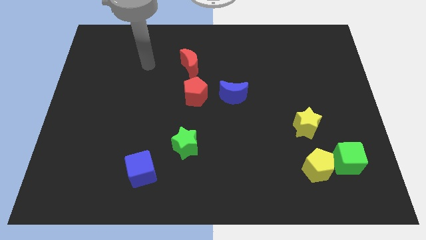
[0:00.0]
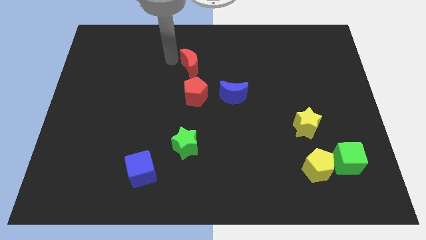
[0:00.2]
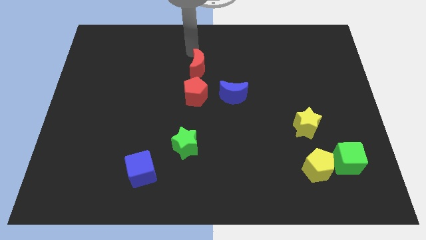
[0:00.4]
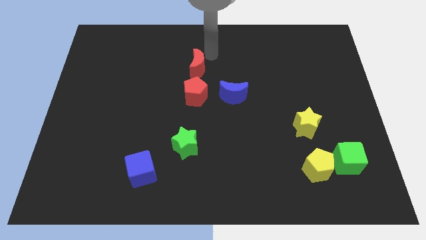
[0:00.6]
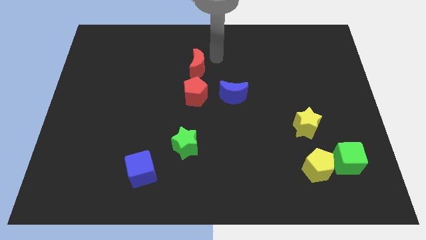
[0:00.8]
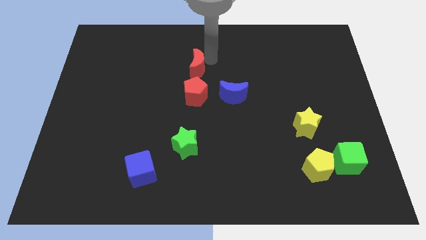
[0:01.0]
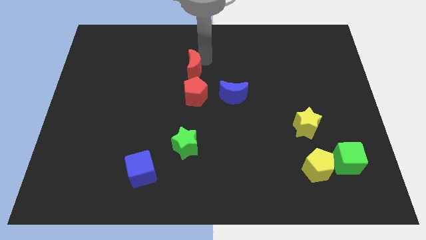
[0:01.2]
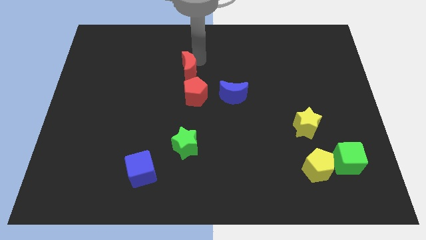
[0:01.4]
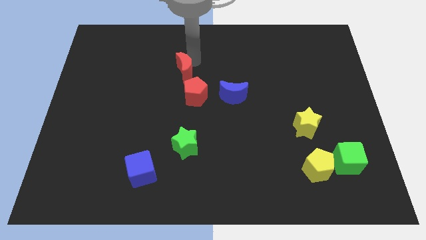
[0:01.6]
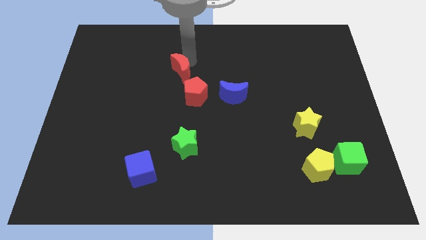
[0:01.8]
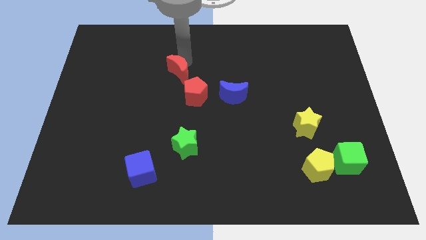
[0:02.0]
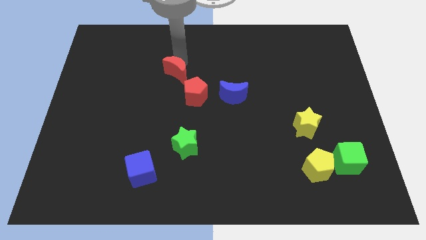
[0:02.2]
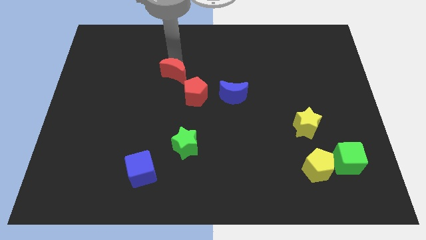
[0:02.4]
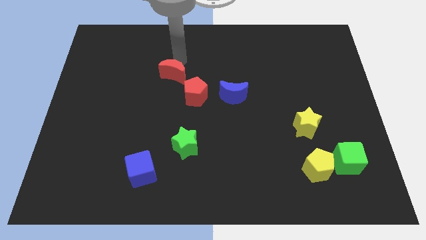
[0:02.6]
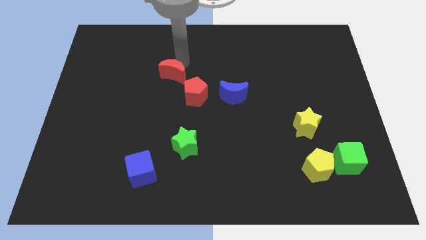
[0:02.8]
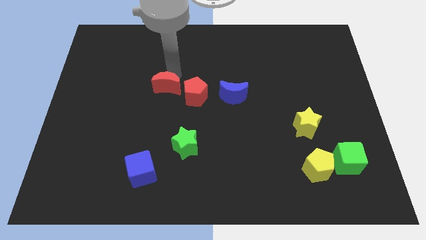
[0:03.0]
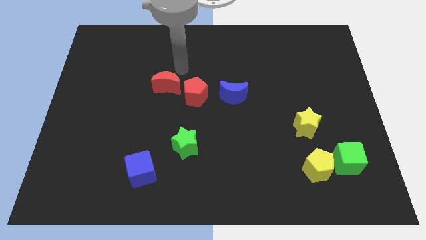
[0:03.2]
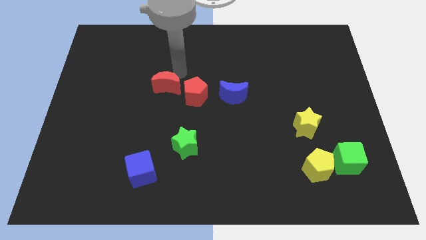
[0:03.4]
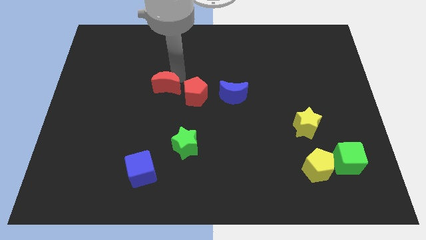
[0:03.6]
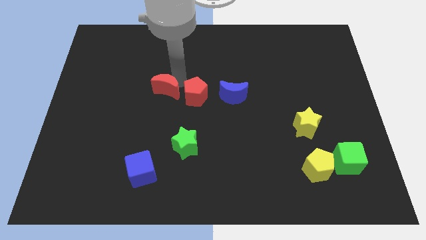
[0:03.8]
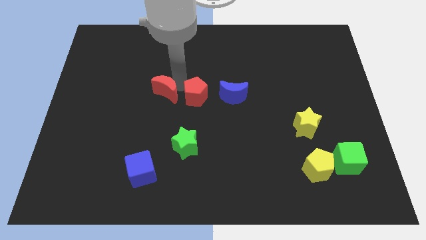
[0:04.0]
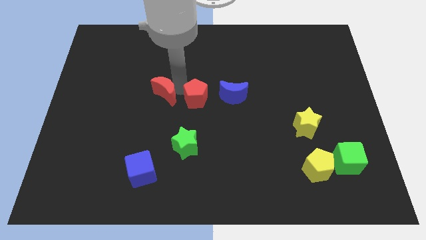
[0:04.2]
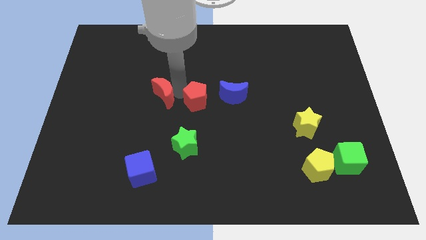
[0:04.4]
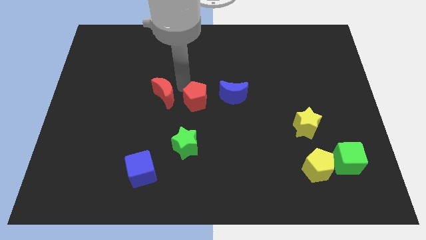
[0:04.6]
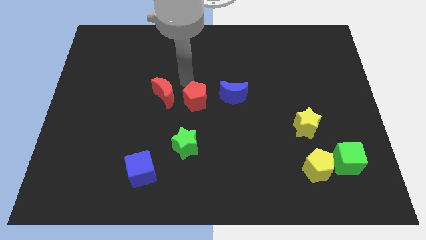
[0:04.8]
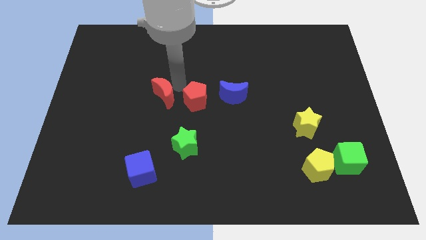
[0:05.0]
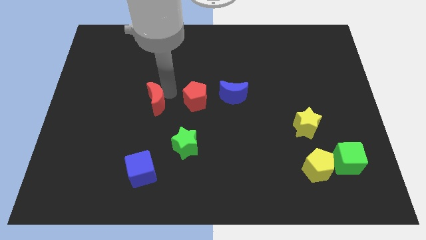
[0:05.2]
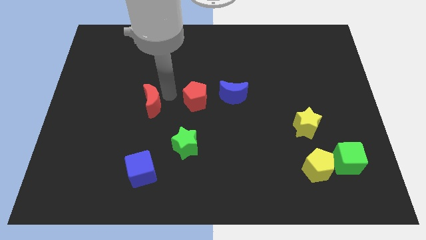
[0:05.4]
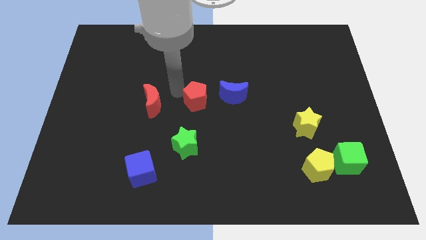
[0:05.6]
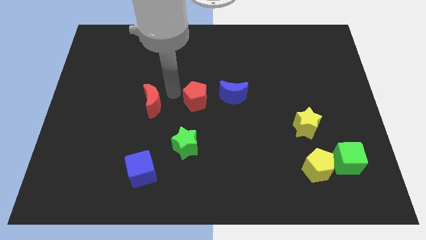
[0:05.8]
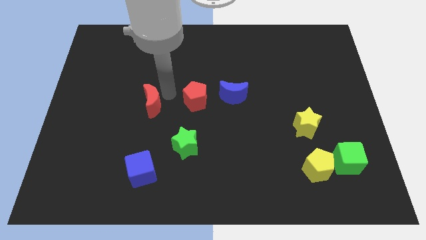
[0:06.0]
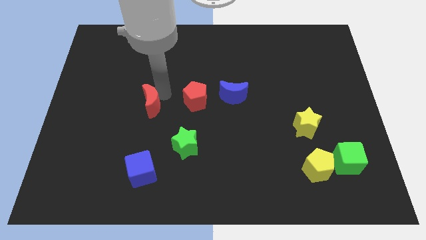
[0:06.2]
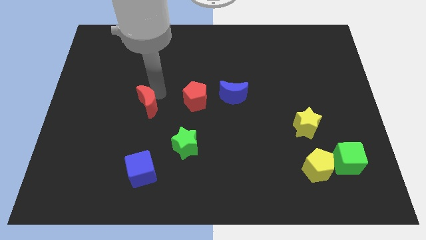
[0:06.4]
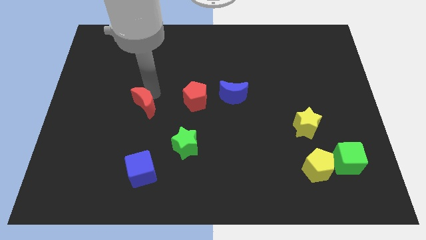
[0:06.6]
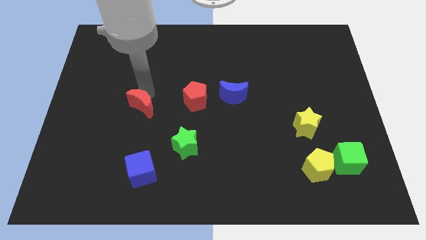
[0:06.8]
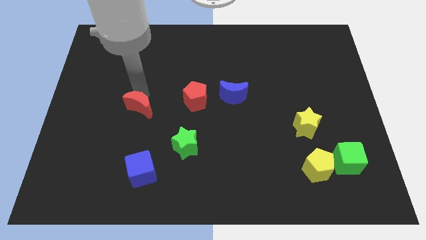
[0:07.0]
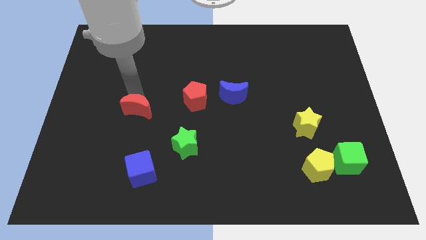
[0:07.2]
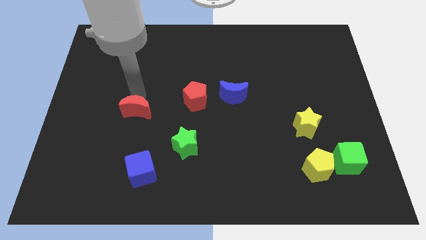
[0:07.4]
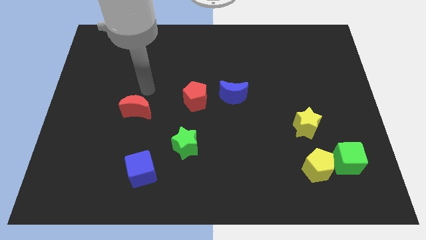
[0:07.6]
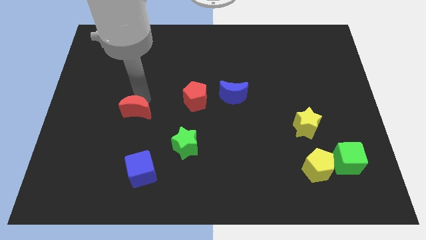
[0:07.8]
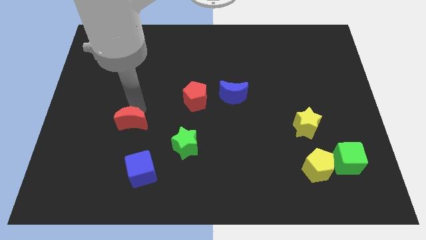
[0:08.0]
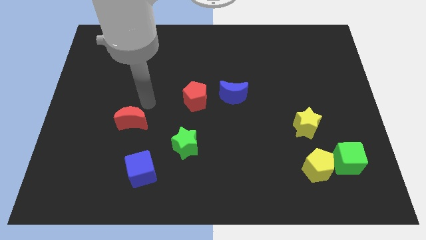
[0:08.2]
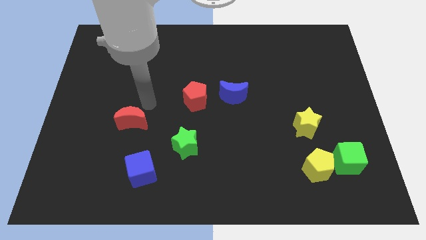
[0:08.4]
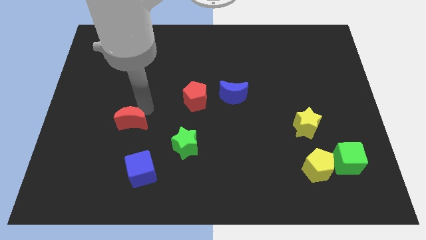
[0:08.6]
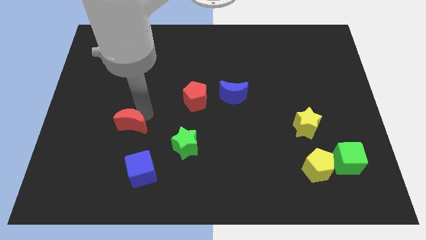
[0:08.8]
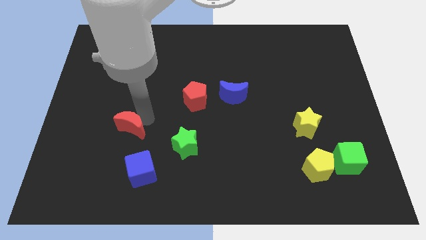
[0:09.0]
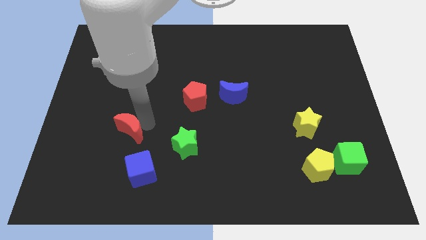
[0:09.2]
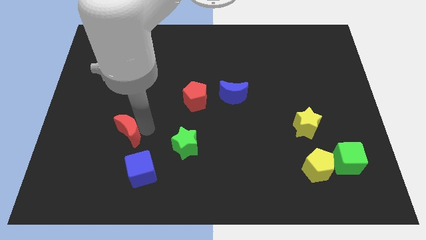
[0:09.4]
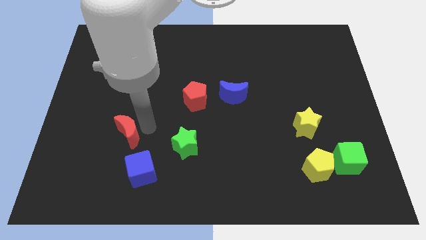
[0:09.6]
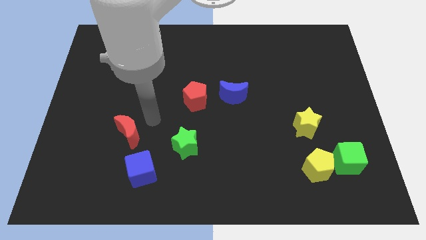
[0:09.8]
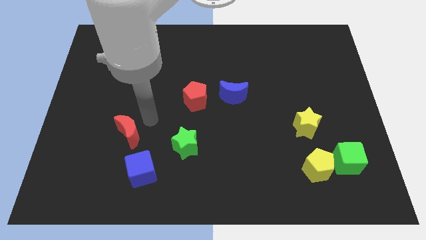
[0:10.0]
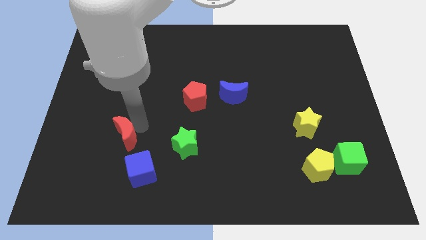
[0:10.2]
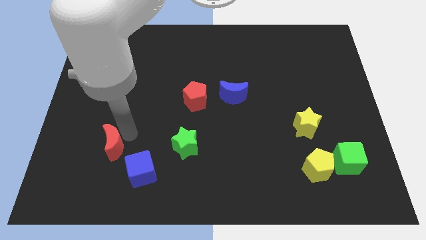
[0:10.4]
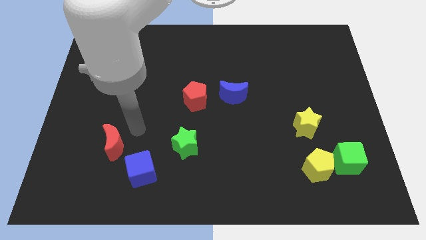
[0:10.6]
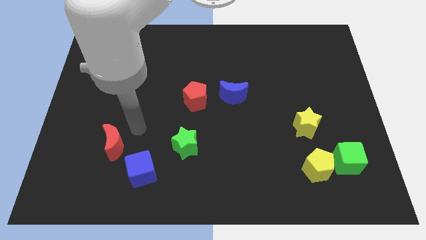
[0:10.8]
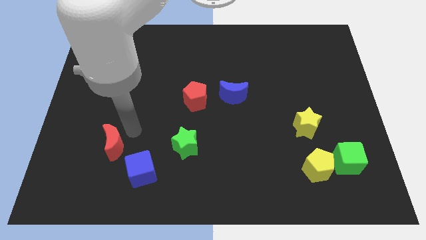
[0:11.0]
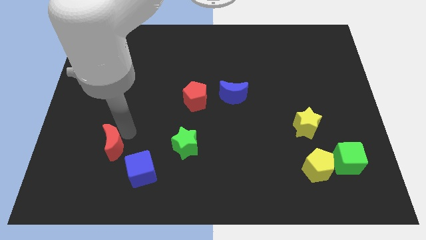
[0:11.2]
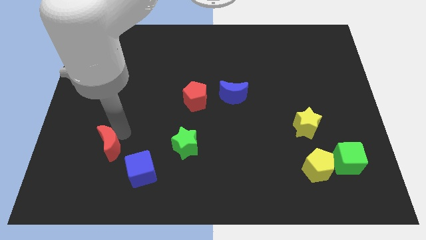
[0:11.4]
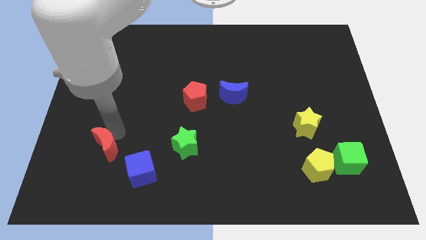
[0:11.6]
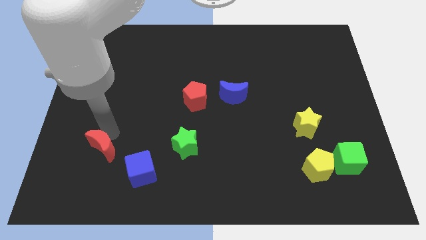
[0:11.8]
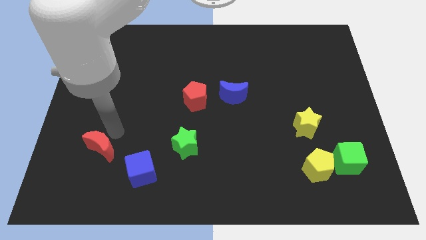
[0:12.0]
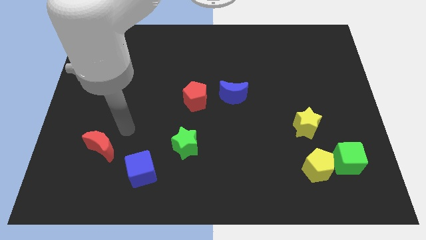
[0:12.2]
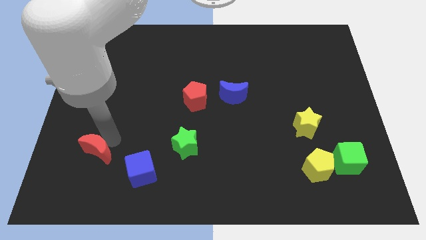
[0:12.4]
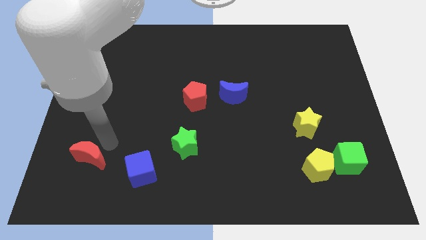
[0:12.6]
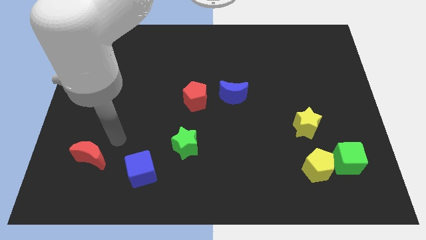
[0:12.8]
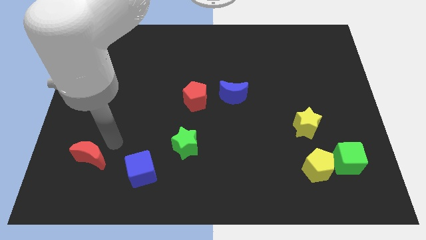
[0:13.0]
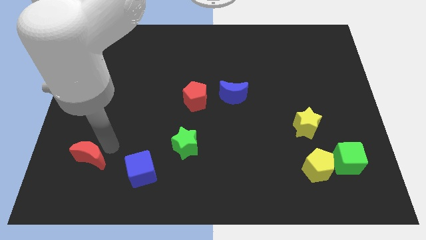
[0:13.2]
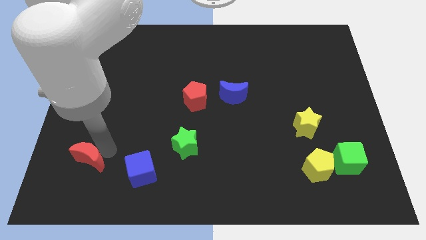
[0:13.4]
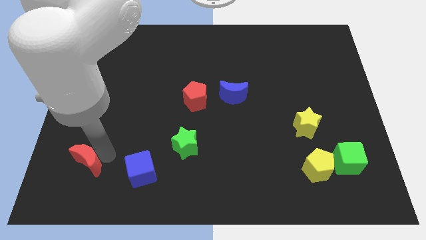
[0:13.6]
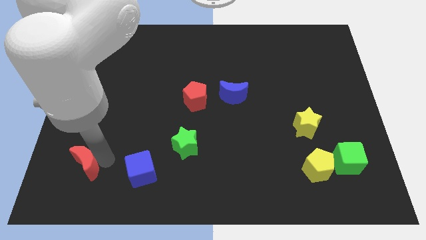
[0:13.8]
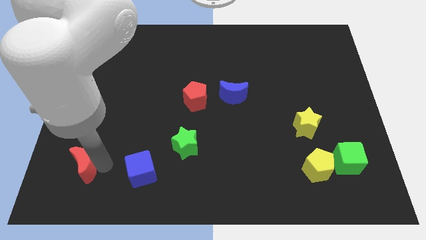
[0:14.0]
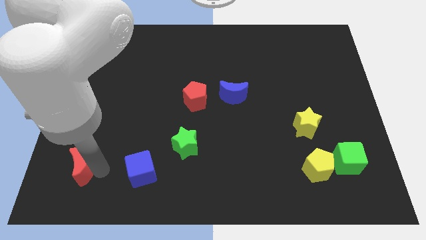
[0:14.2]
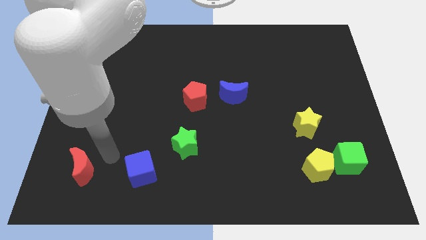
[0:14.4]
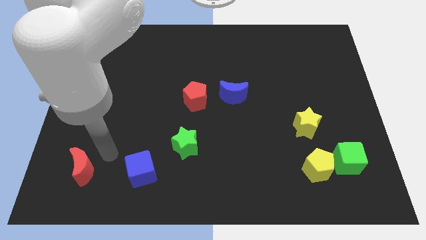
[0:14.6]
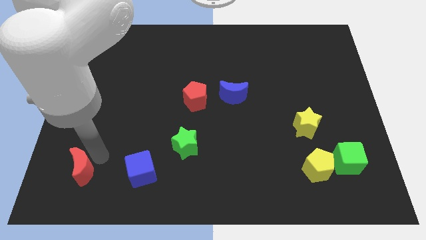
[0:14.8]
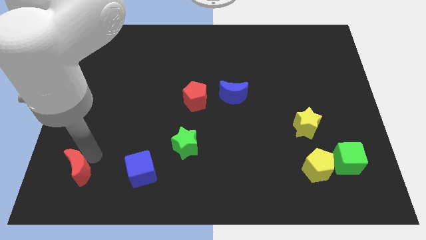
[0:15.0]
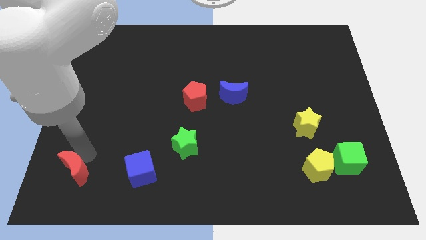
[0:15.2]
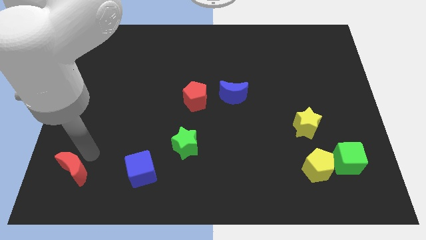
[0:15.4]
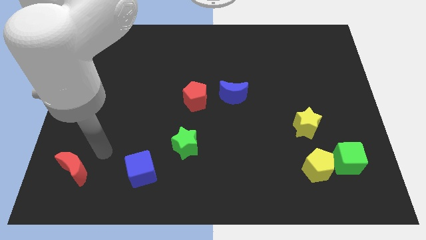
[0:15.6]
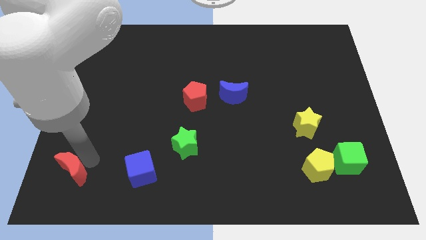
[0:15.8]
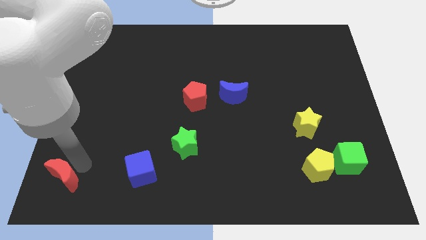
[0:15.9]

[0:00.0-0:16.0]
push the red moon to the bottom left corner

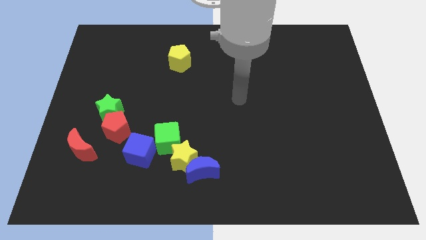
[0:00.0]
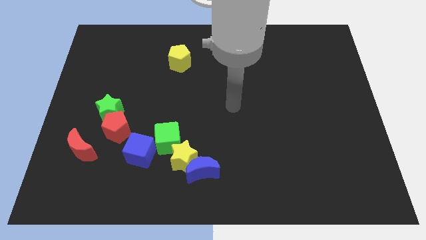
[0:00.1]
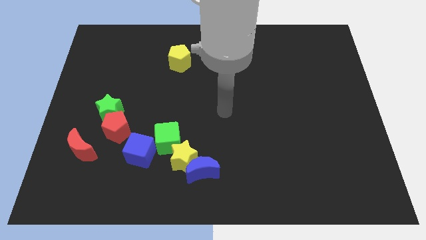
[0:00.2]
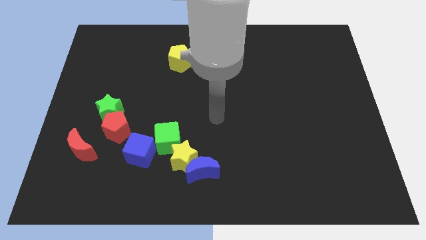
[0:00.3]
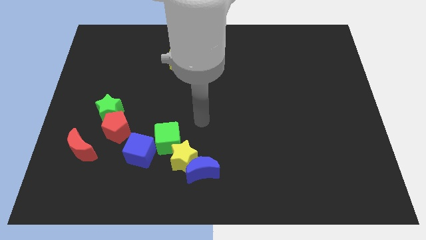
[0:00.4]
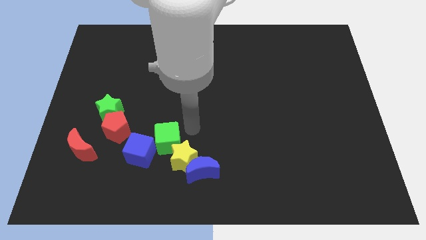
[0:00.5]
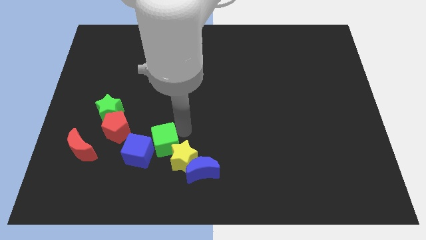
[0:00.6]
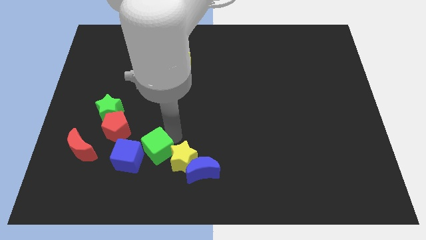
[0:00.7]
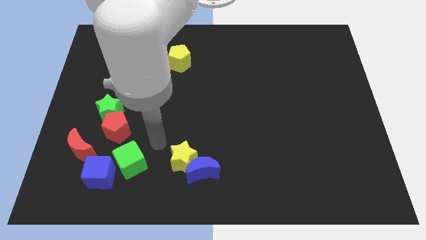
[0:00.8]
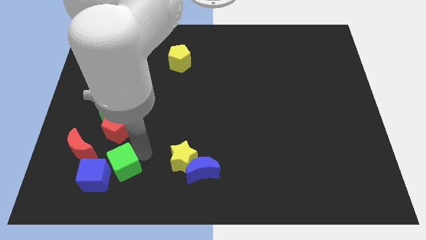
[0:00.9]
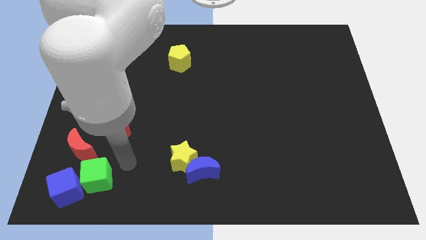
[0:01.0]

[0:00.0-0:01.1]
slide the blue cube to the bottom left
